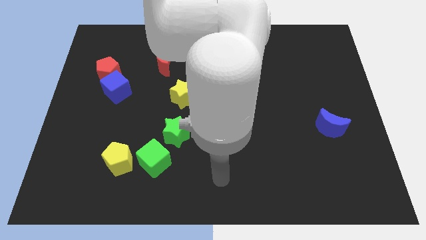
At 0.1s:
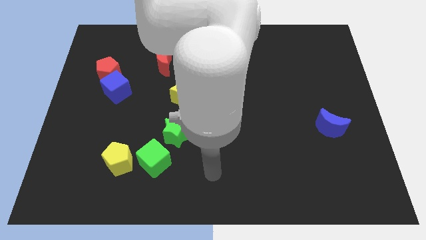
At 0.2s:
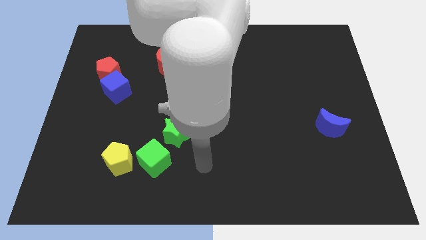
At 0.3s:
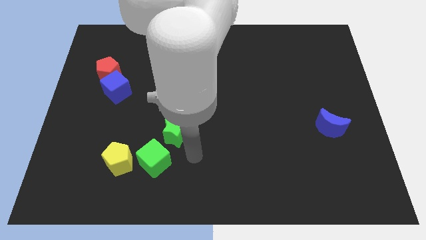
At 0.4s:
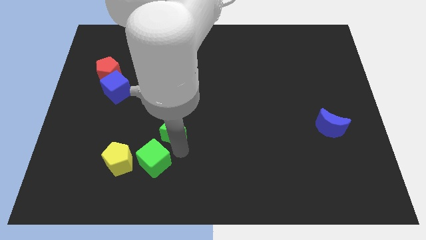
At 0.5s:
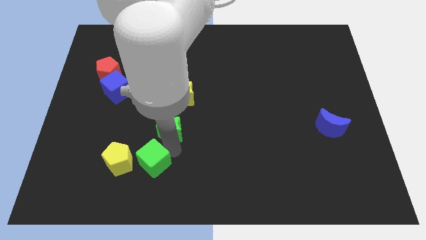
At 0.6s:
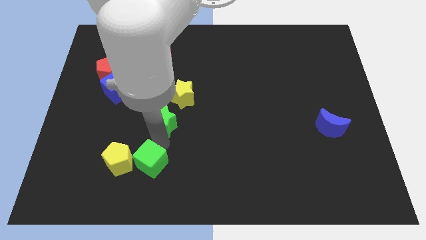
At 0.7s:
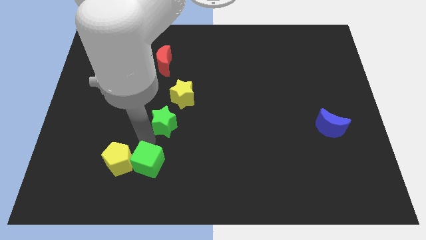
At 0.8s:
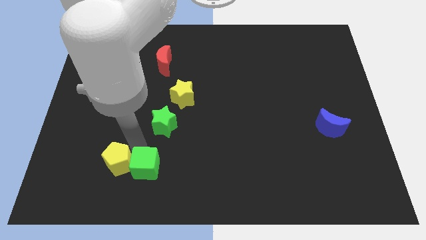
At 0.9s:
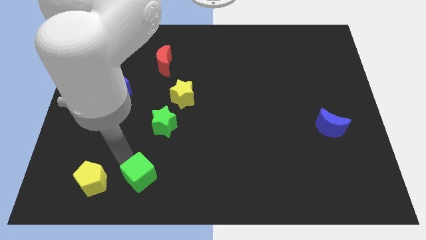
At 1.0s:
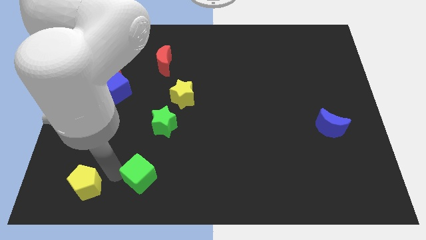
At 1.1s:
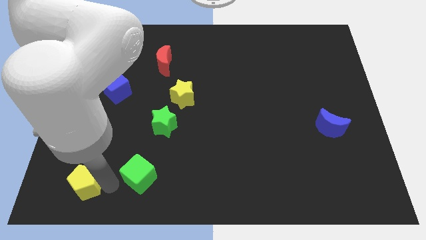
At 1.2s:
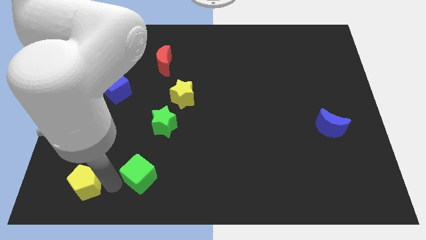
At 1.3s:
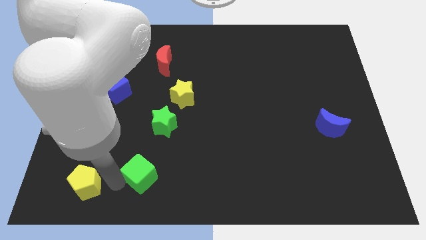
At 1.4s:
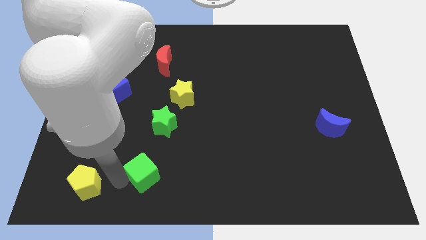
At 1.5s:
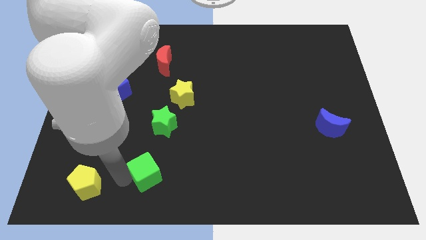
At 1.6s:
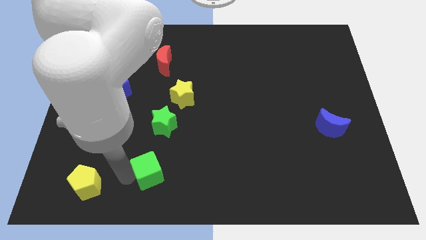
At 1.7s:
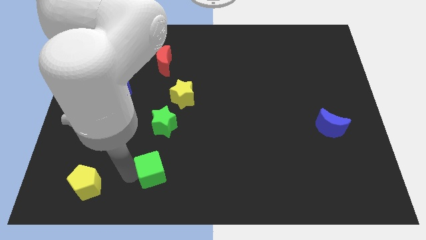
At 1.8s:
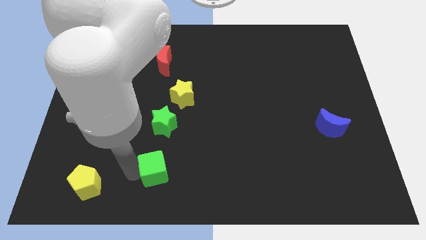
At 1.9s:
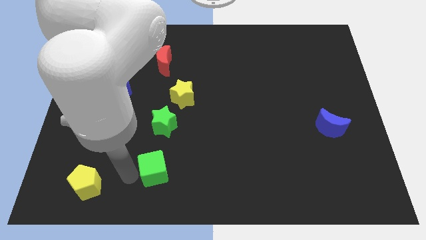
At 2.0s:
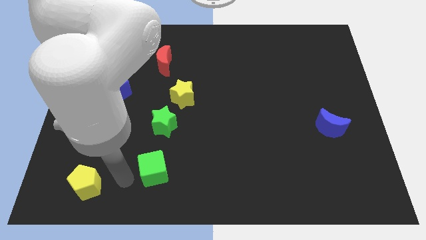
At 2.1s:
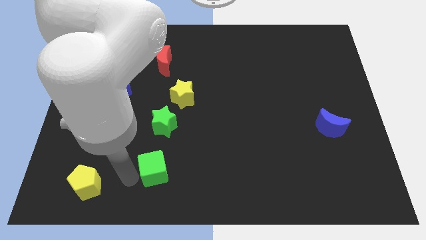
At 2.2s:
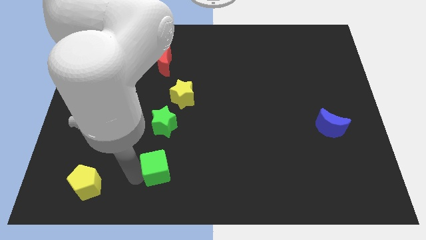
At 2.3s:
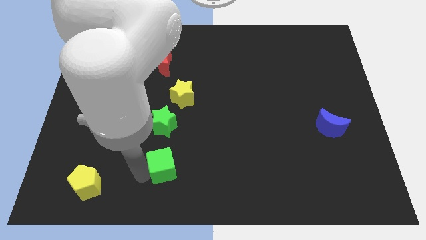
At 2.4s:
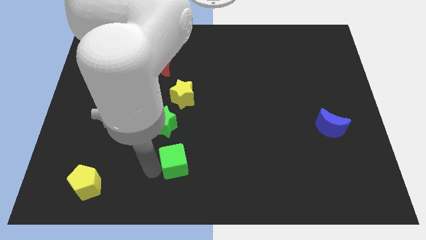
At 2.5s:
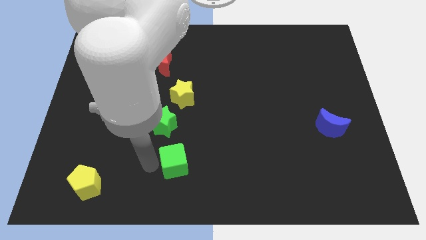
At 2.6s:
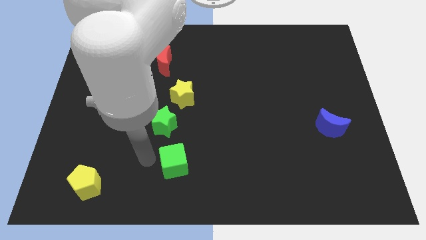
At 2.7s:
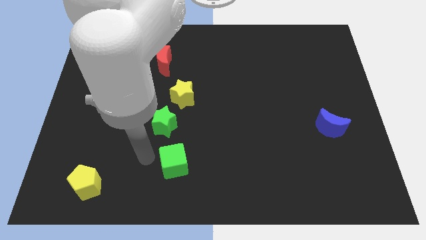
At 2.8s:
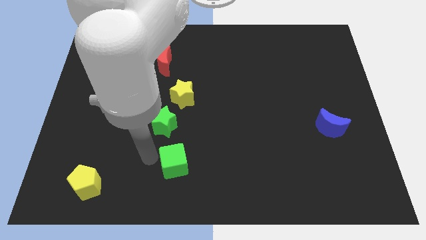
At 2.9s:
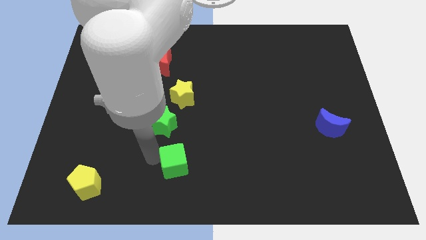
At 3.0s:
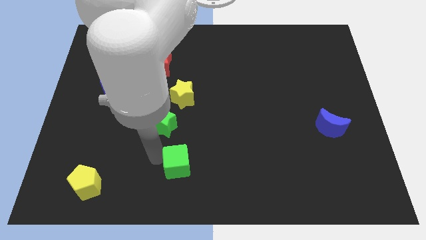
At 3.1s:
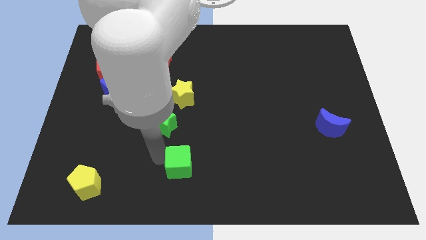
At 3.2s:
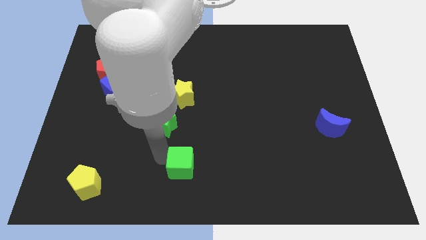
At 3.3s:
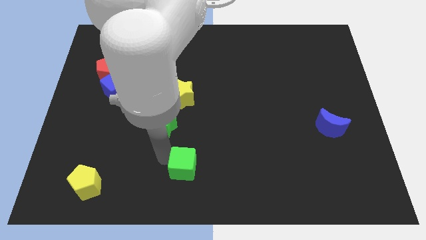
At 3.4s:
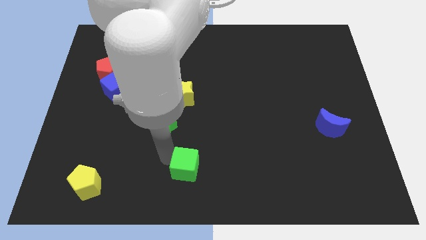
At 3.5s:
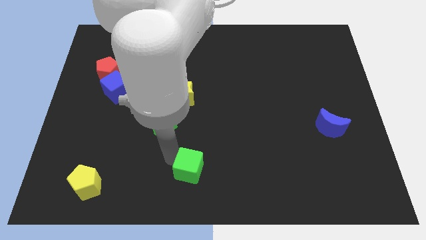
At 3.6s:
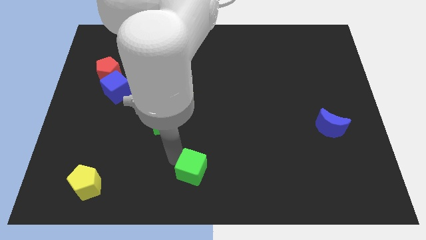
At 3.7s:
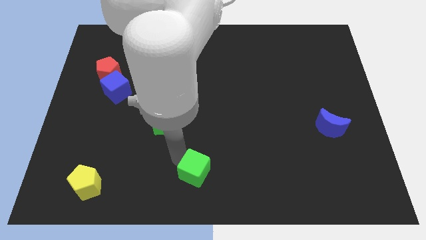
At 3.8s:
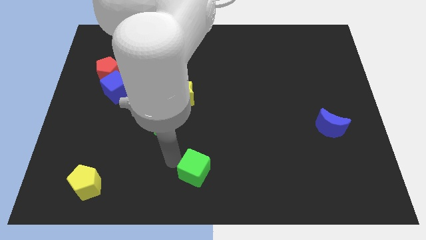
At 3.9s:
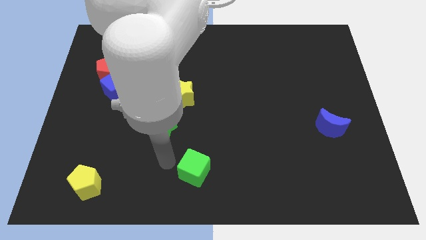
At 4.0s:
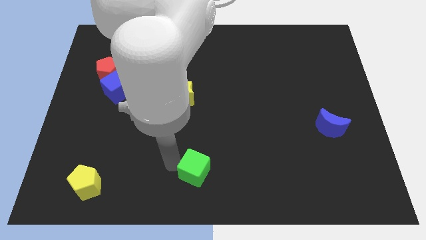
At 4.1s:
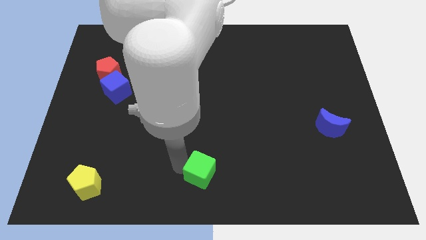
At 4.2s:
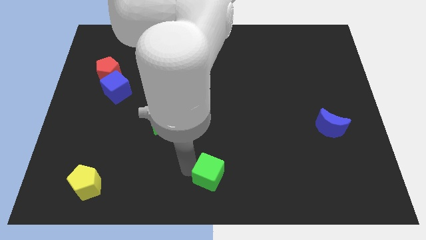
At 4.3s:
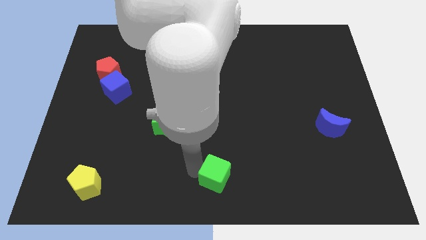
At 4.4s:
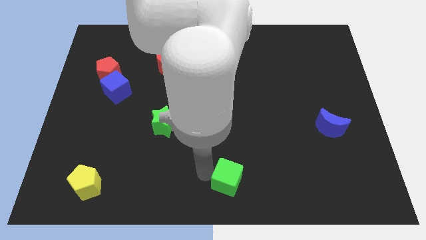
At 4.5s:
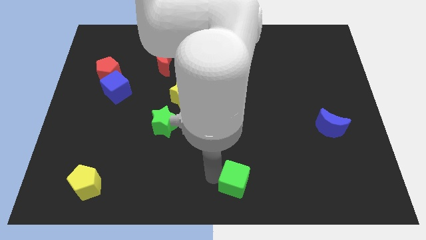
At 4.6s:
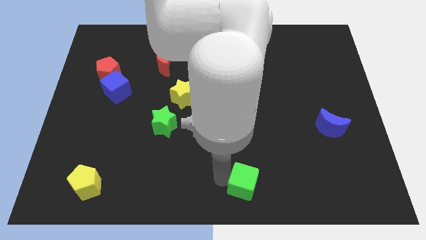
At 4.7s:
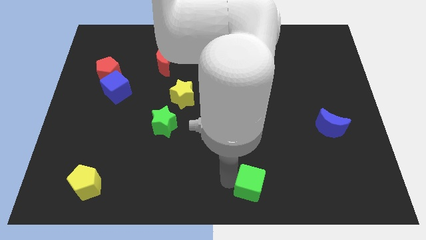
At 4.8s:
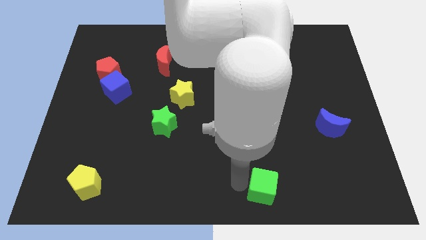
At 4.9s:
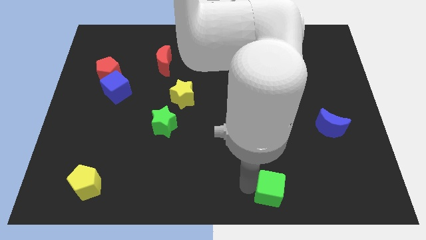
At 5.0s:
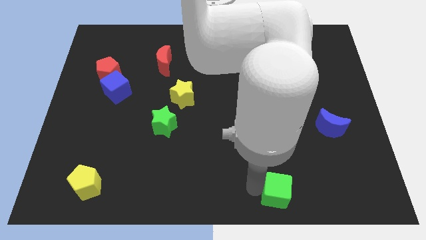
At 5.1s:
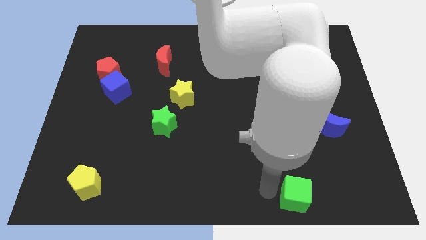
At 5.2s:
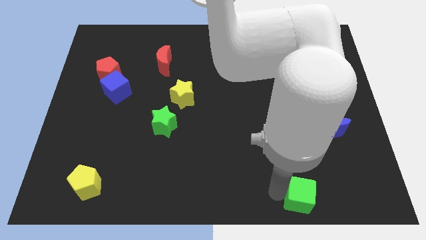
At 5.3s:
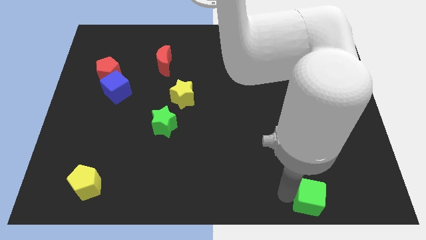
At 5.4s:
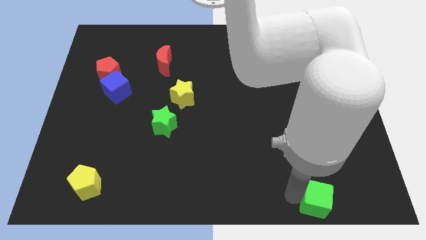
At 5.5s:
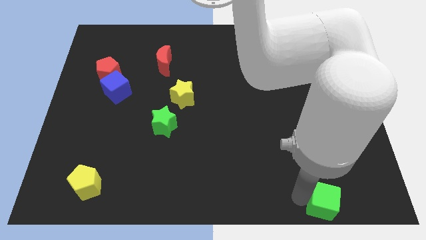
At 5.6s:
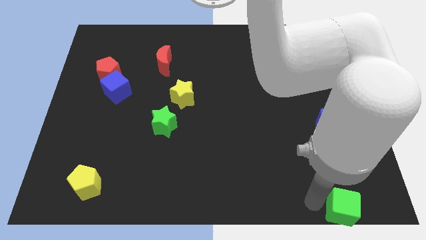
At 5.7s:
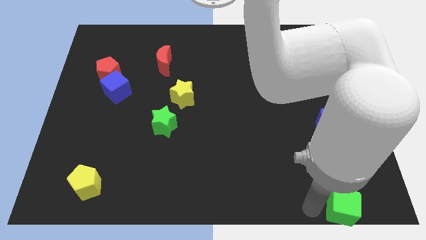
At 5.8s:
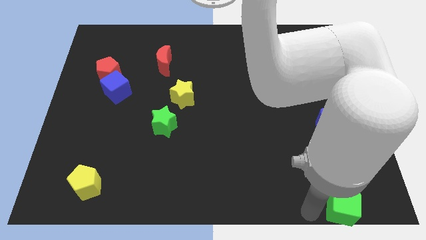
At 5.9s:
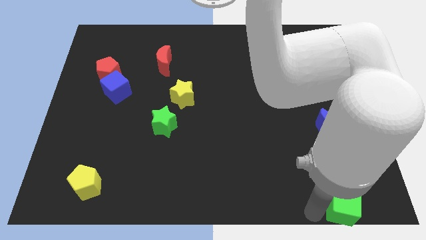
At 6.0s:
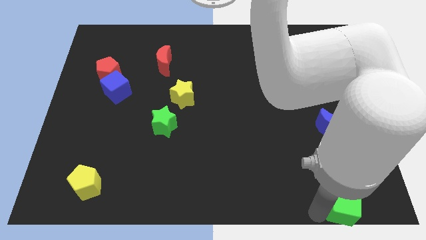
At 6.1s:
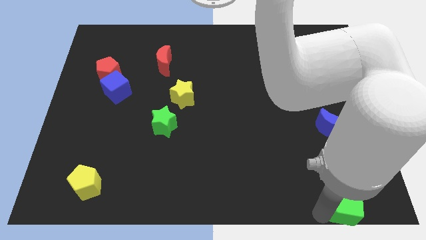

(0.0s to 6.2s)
put the green cube to the bottom right corner

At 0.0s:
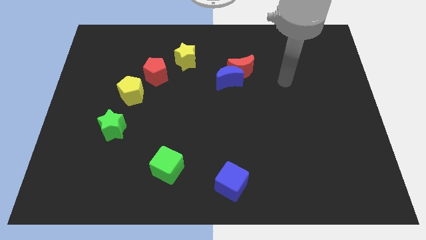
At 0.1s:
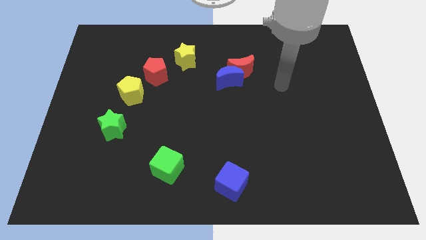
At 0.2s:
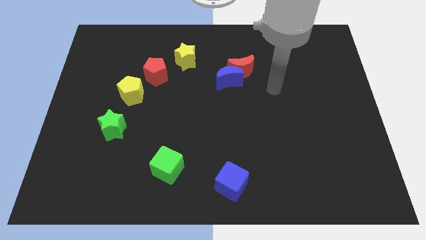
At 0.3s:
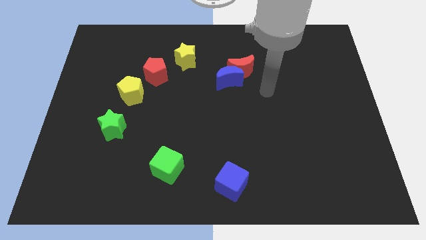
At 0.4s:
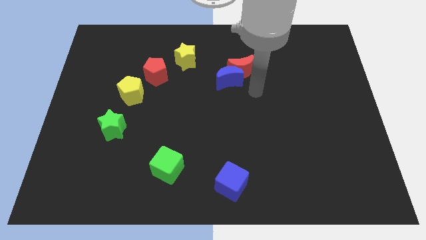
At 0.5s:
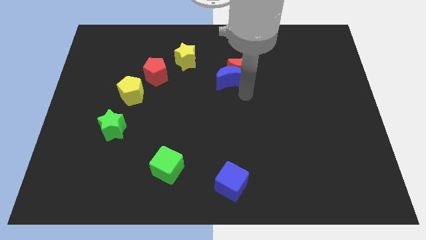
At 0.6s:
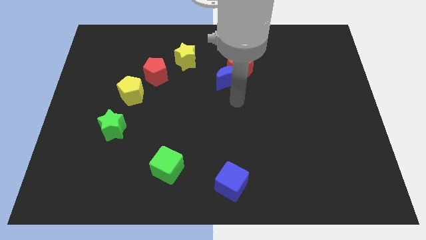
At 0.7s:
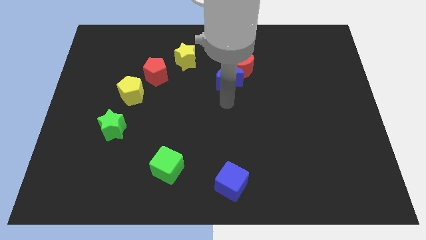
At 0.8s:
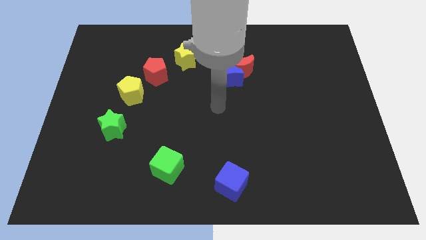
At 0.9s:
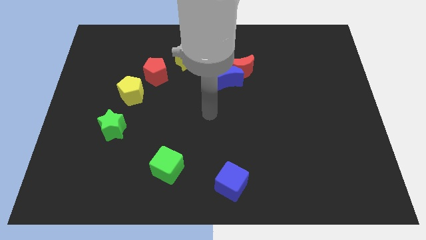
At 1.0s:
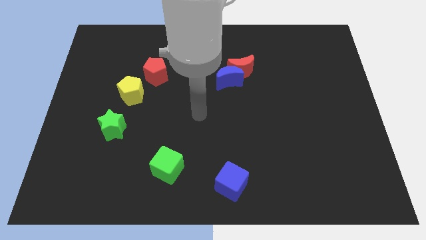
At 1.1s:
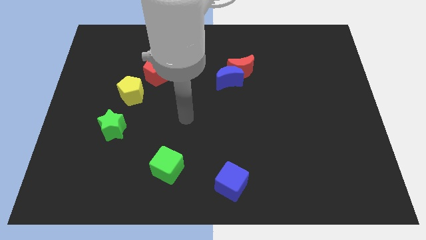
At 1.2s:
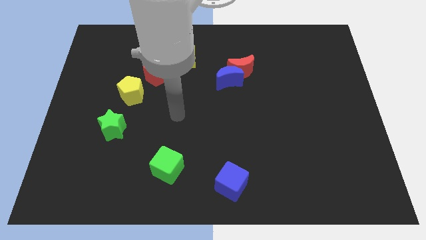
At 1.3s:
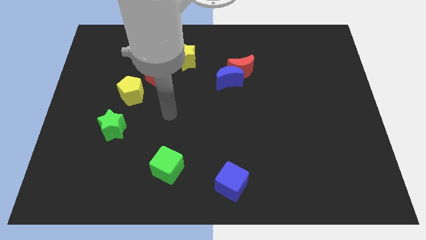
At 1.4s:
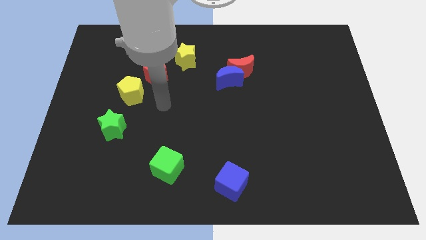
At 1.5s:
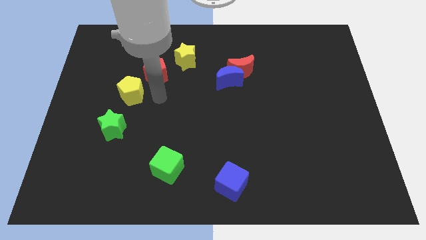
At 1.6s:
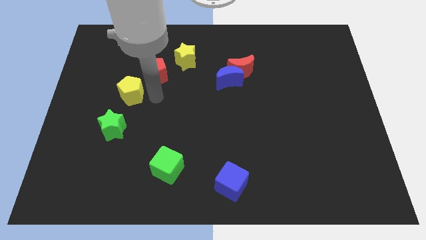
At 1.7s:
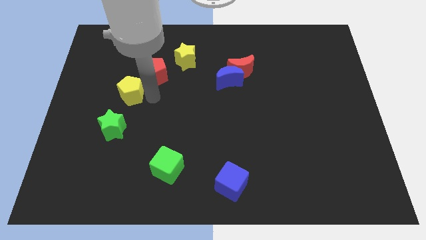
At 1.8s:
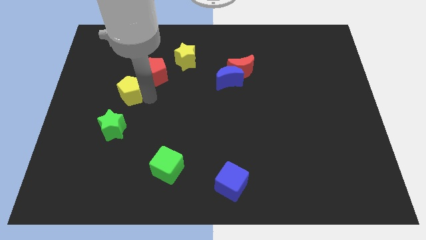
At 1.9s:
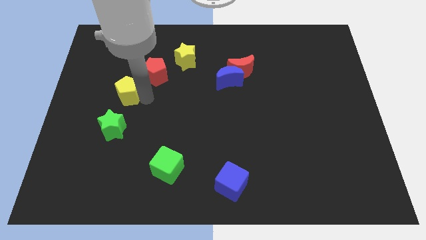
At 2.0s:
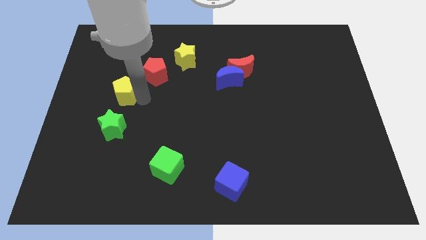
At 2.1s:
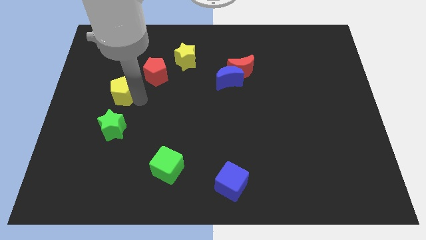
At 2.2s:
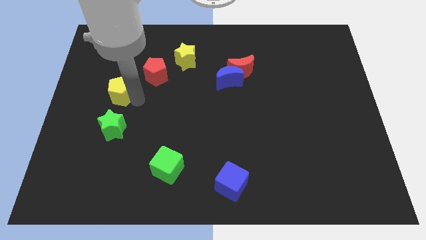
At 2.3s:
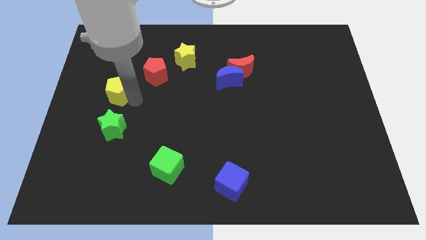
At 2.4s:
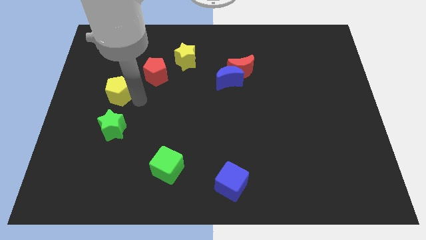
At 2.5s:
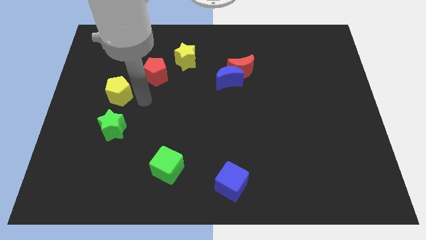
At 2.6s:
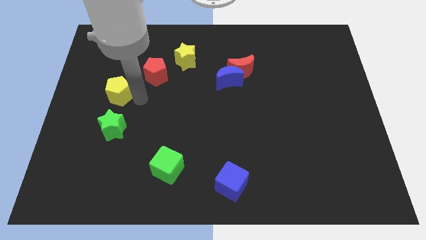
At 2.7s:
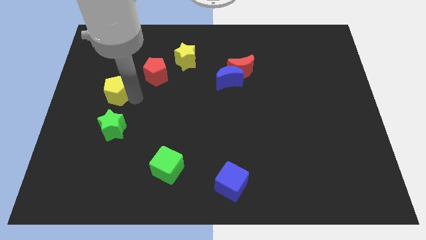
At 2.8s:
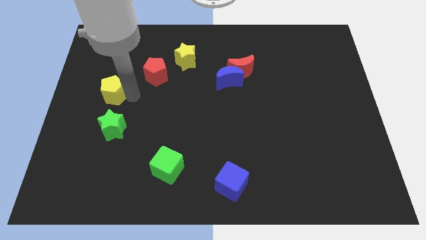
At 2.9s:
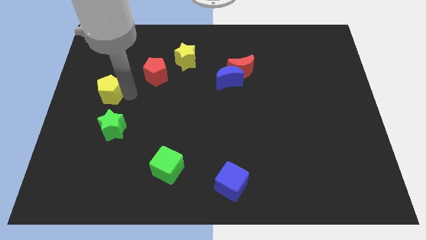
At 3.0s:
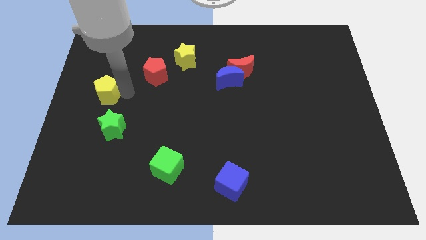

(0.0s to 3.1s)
push the yellow pentagon to the left side of the board
